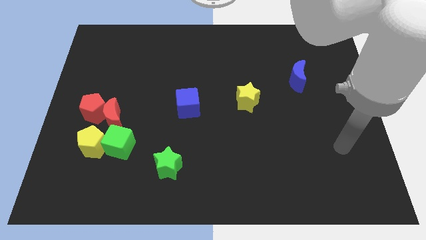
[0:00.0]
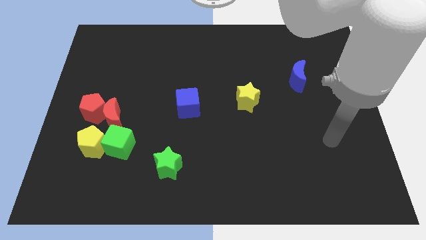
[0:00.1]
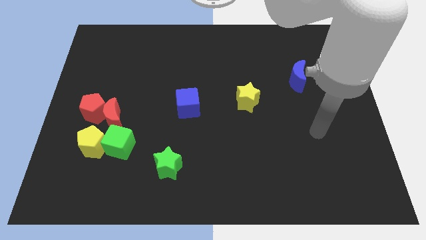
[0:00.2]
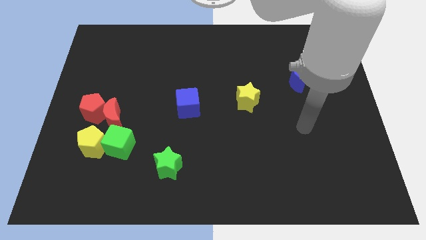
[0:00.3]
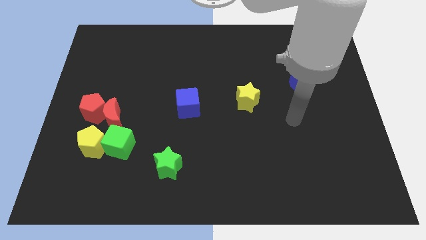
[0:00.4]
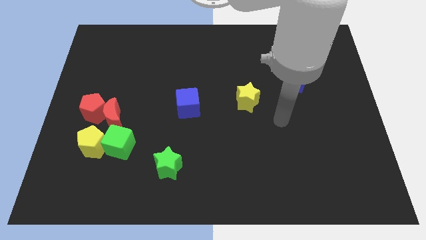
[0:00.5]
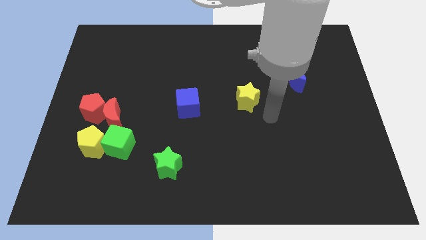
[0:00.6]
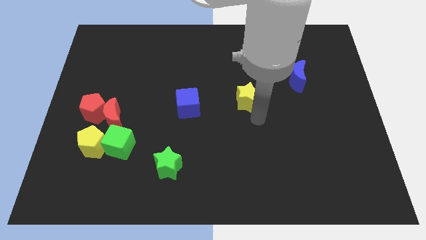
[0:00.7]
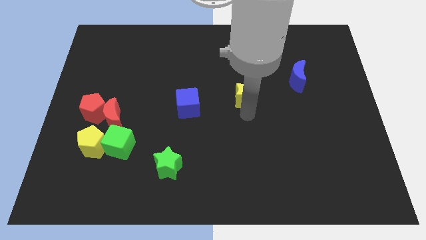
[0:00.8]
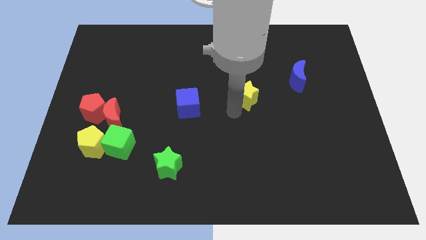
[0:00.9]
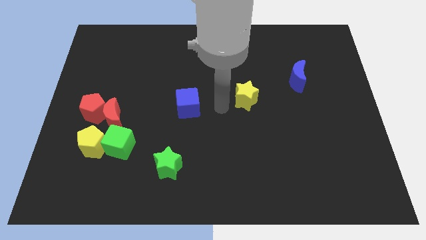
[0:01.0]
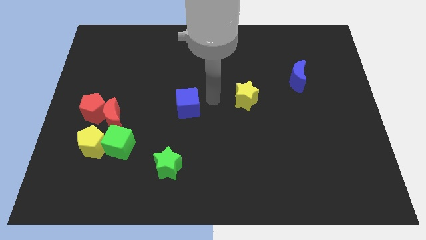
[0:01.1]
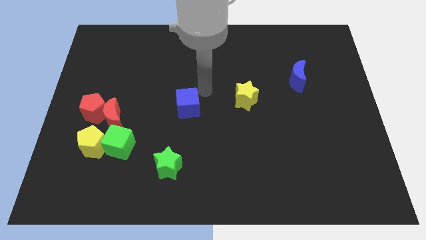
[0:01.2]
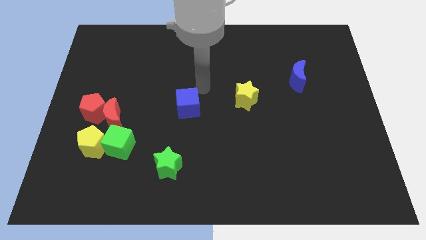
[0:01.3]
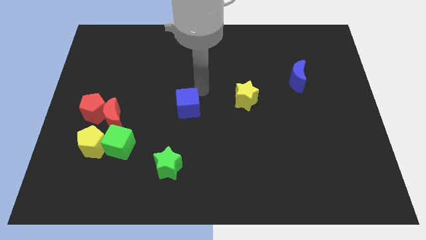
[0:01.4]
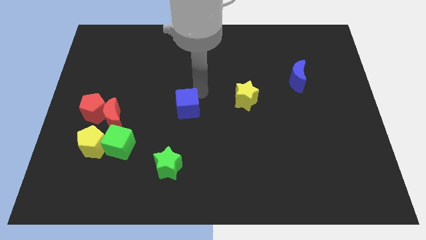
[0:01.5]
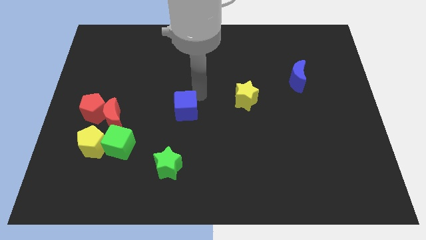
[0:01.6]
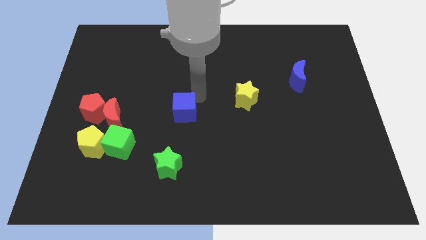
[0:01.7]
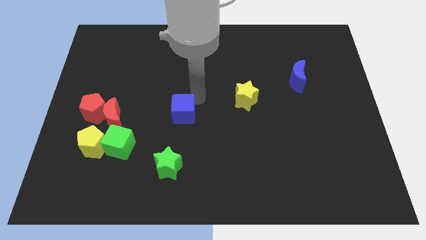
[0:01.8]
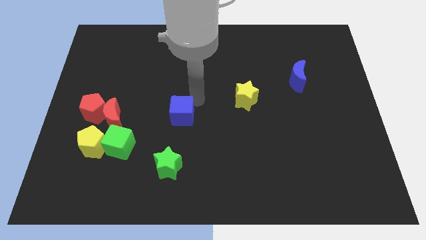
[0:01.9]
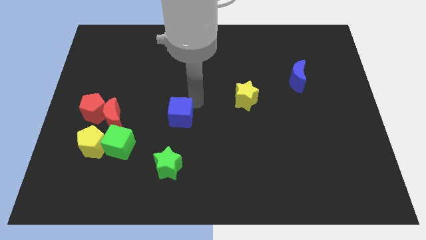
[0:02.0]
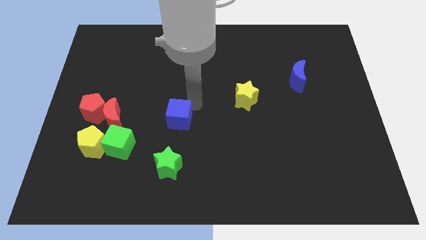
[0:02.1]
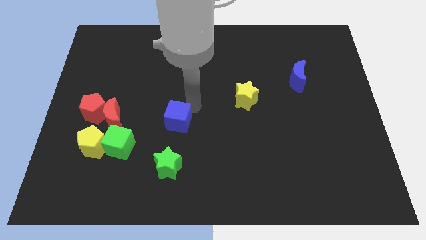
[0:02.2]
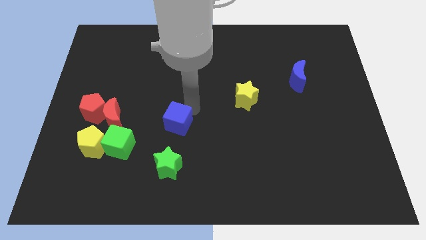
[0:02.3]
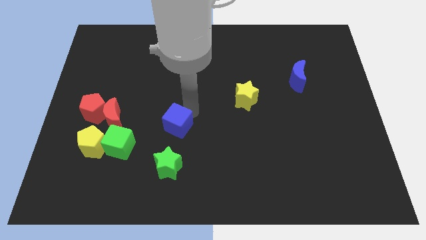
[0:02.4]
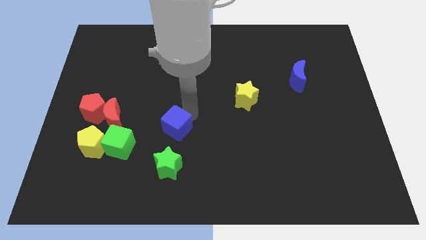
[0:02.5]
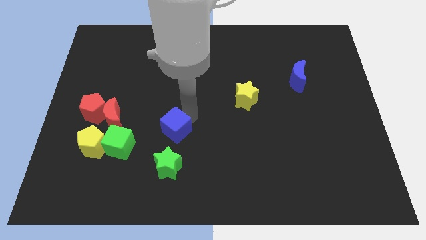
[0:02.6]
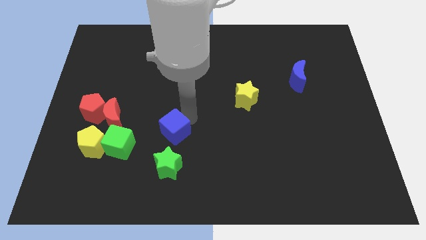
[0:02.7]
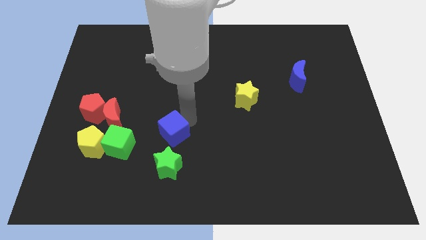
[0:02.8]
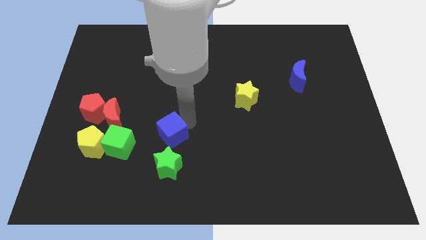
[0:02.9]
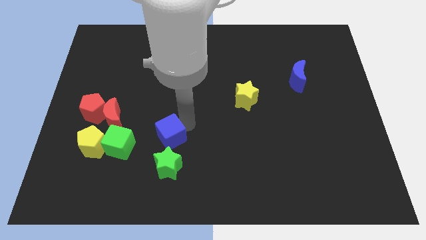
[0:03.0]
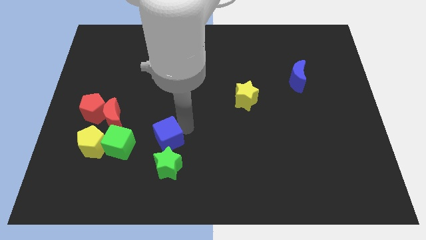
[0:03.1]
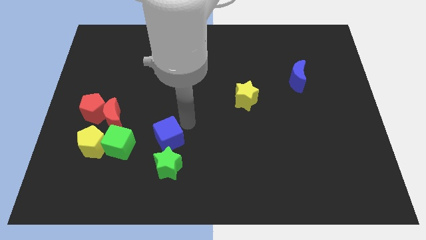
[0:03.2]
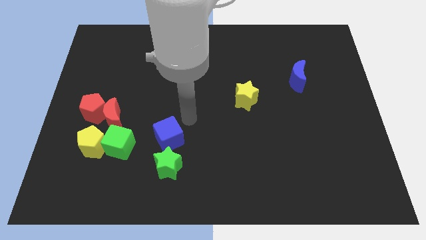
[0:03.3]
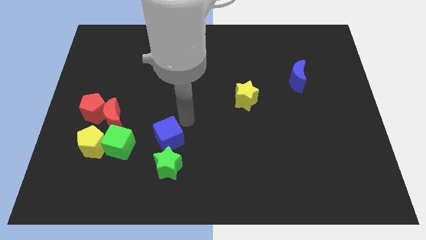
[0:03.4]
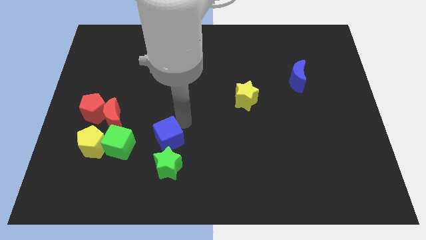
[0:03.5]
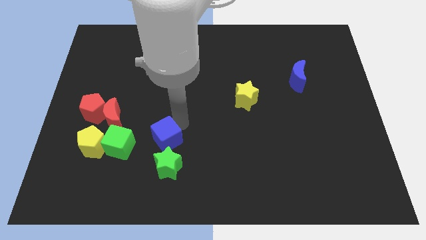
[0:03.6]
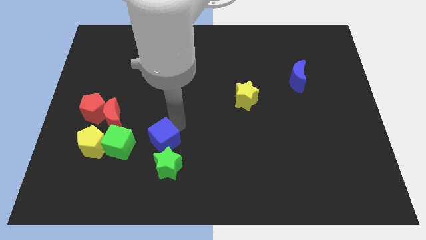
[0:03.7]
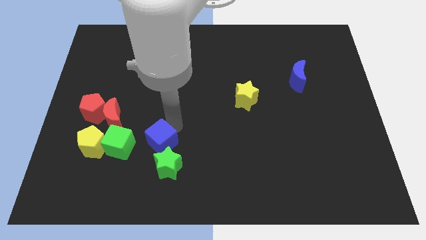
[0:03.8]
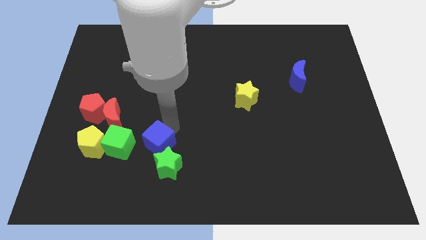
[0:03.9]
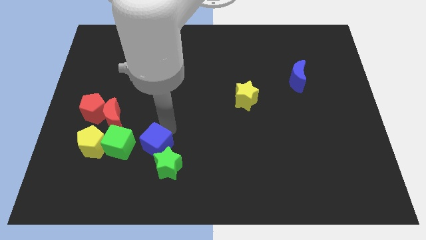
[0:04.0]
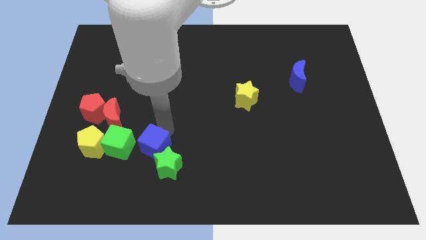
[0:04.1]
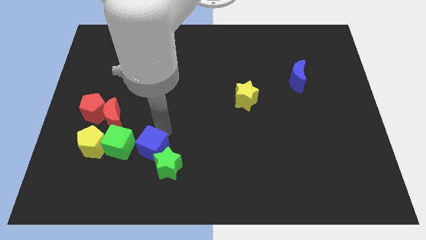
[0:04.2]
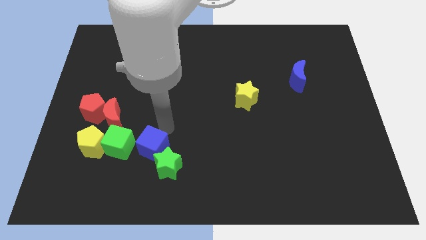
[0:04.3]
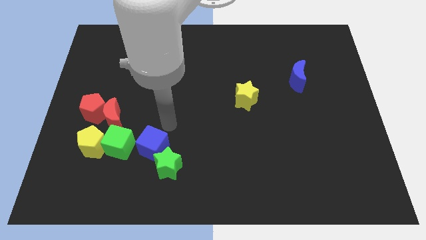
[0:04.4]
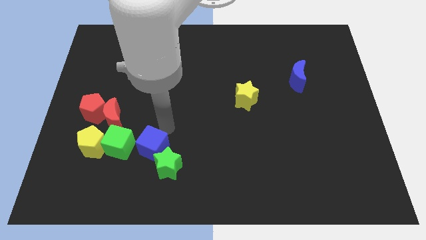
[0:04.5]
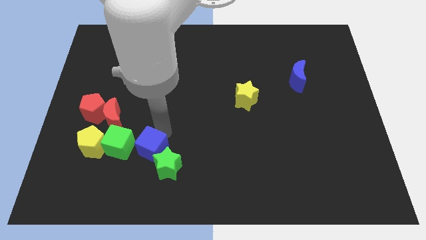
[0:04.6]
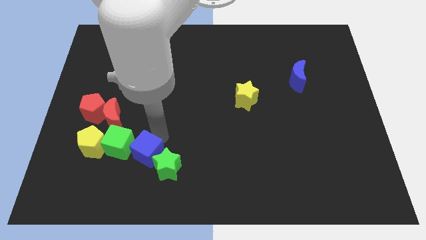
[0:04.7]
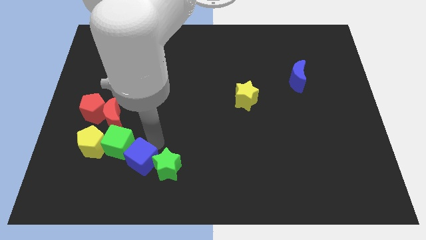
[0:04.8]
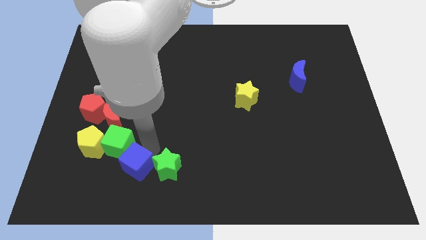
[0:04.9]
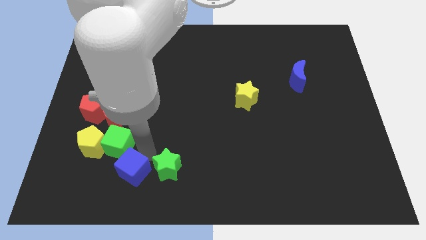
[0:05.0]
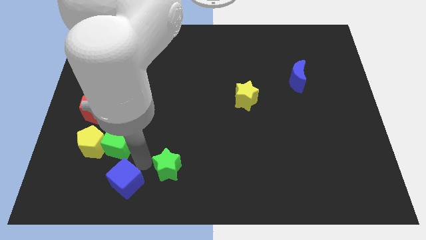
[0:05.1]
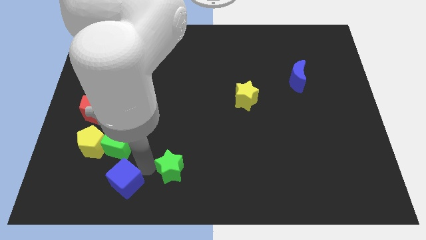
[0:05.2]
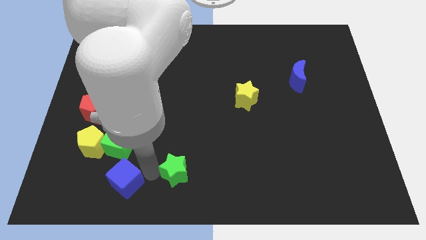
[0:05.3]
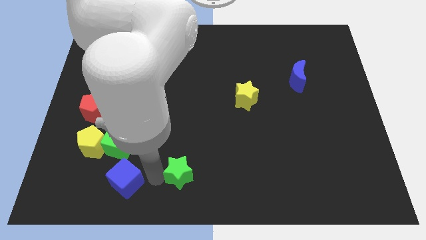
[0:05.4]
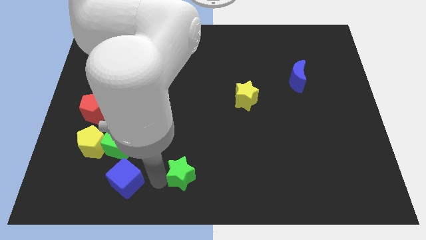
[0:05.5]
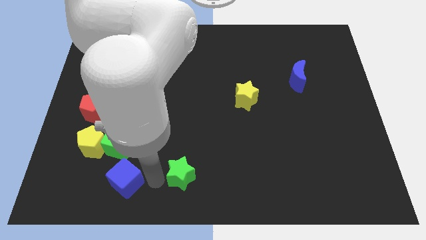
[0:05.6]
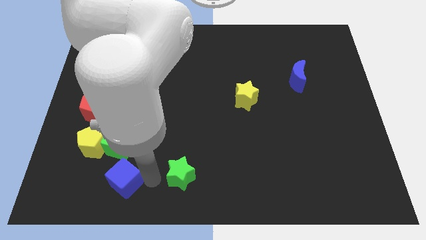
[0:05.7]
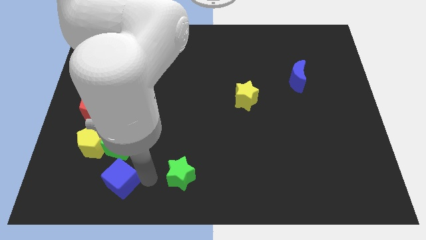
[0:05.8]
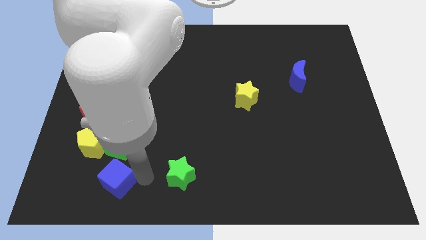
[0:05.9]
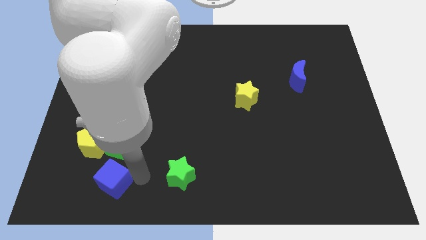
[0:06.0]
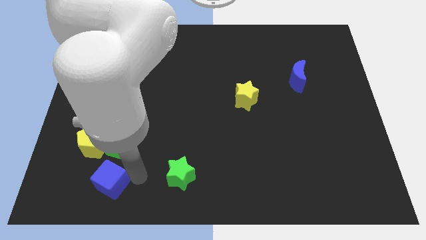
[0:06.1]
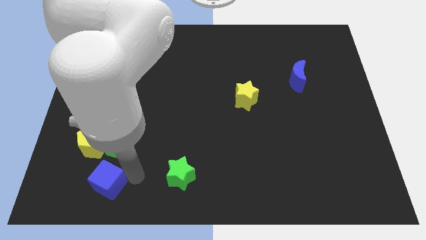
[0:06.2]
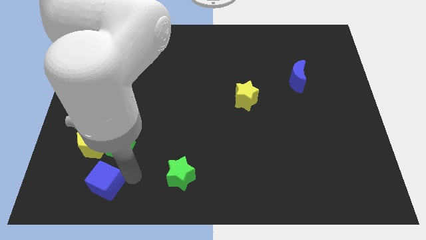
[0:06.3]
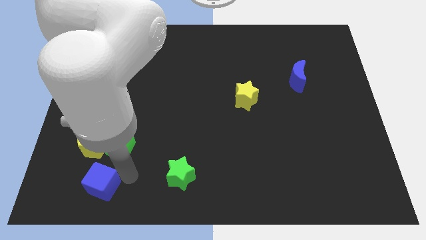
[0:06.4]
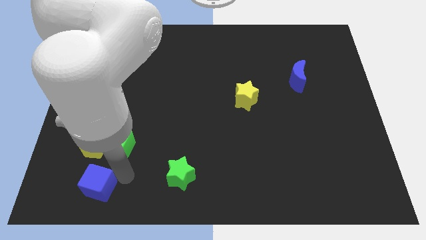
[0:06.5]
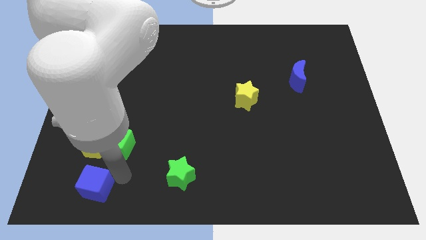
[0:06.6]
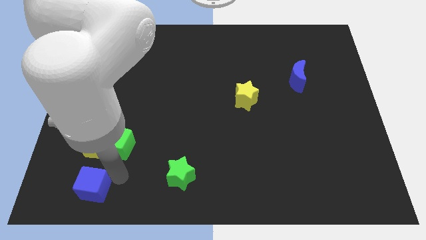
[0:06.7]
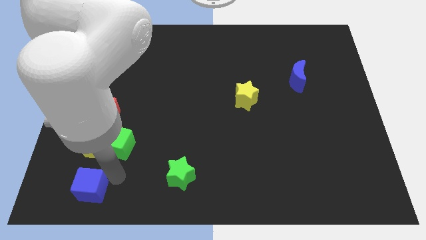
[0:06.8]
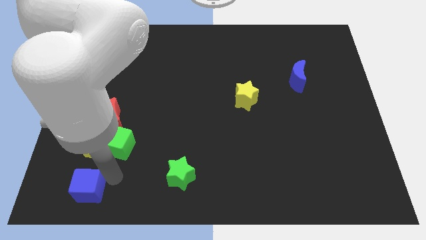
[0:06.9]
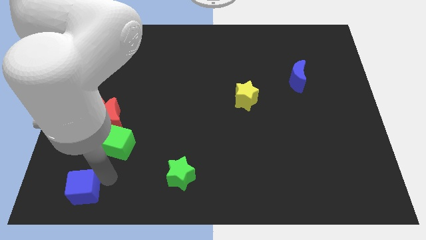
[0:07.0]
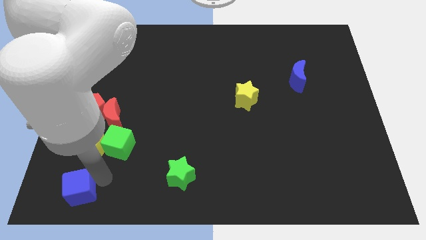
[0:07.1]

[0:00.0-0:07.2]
move the blue cube to the bottom left
